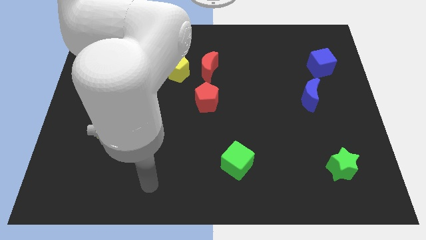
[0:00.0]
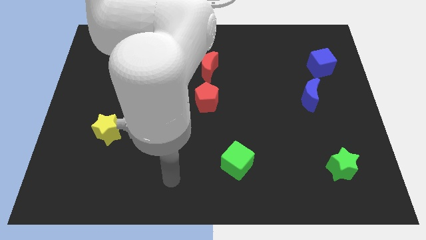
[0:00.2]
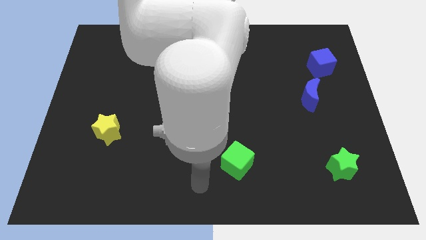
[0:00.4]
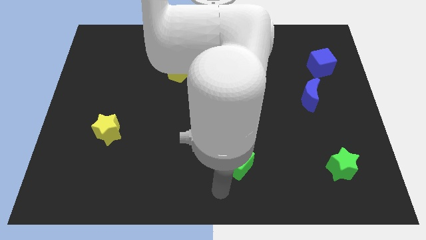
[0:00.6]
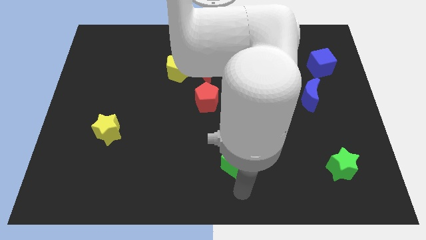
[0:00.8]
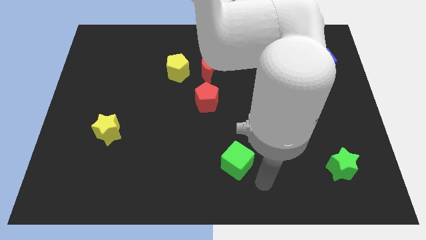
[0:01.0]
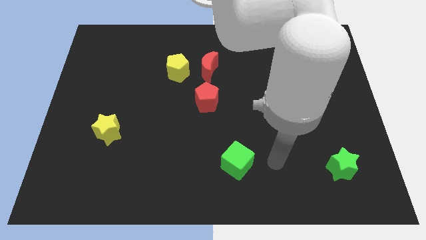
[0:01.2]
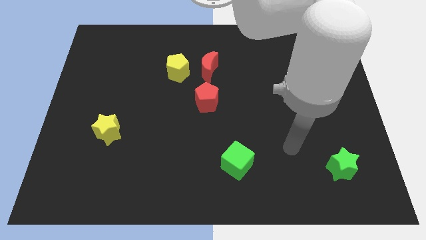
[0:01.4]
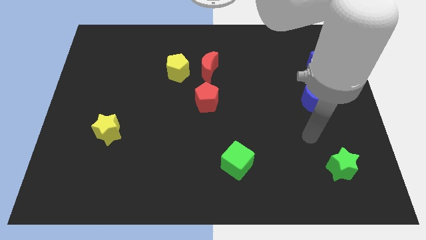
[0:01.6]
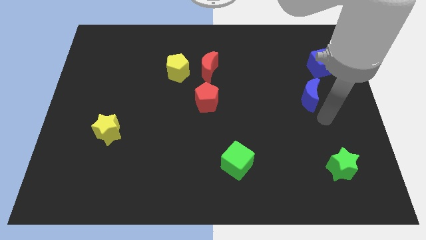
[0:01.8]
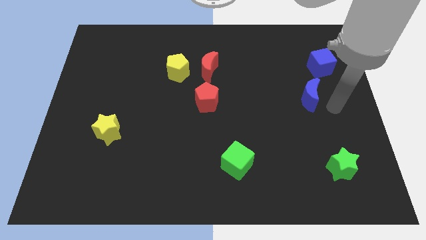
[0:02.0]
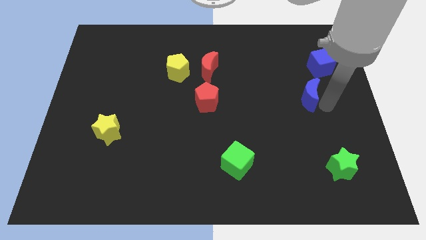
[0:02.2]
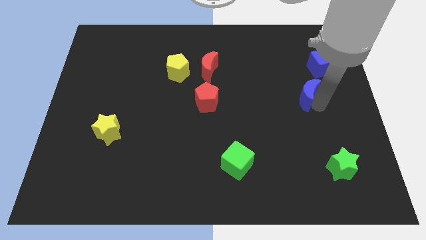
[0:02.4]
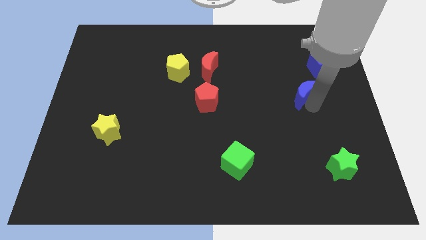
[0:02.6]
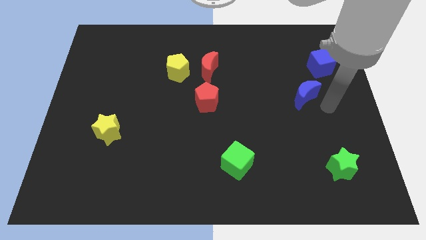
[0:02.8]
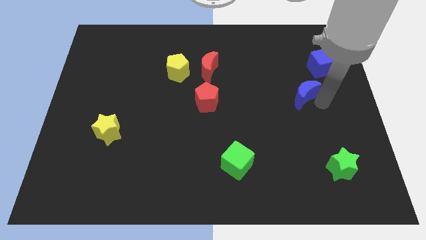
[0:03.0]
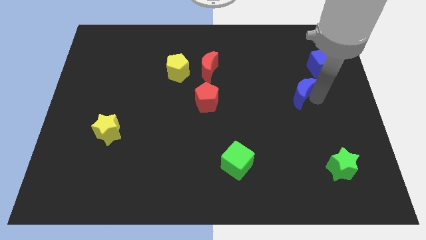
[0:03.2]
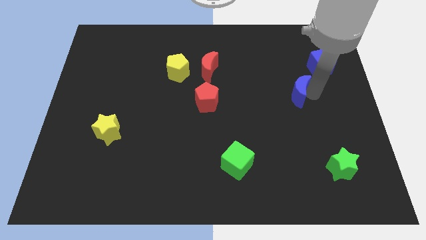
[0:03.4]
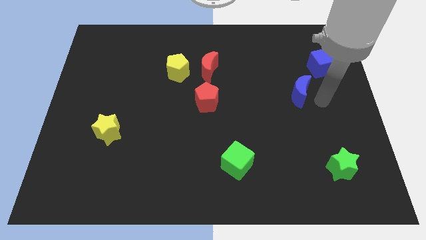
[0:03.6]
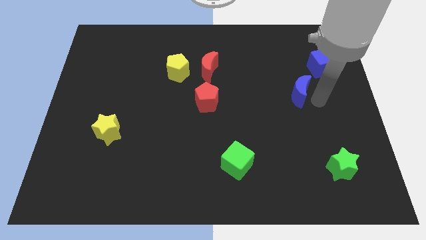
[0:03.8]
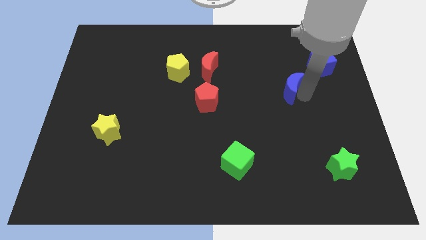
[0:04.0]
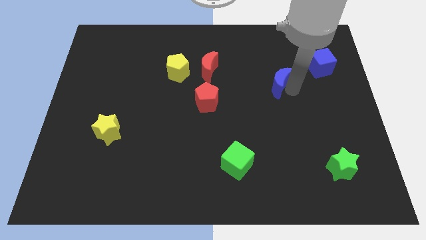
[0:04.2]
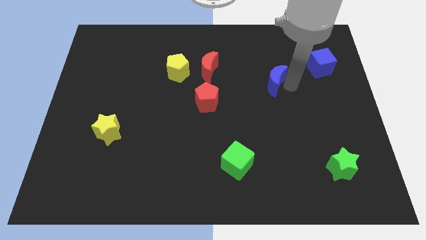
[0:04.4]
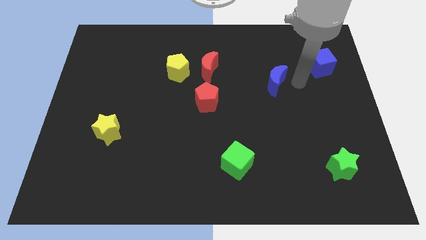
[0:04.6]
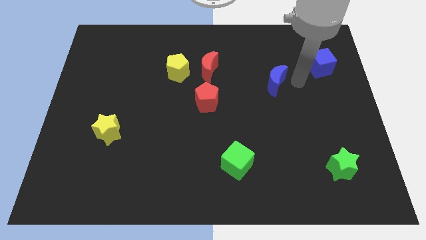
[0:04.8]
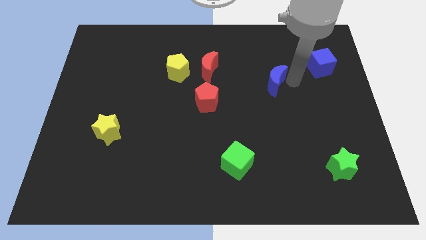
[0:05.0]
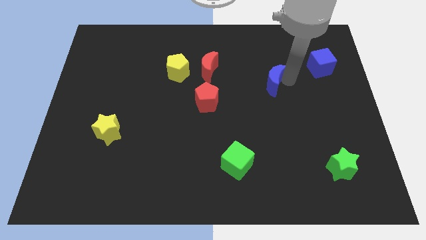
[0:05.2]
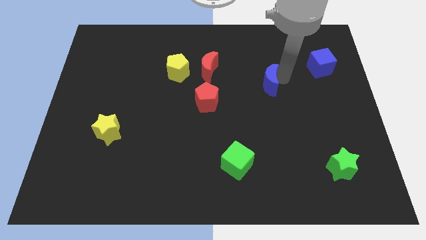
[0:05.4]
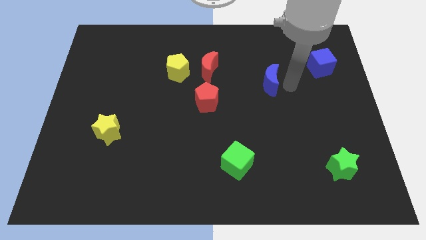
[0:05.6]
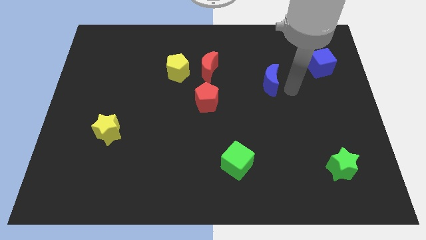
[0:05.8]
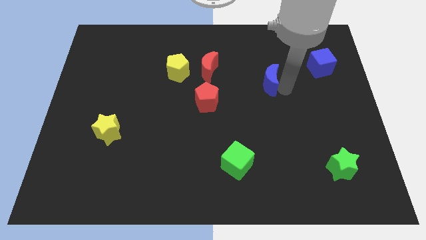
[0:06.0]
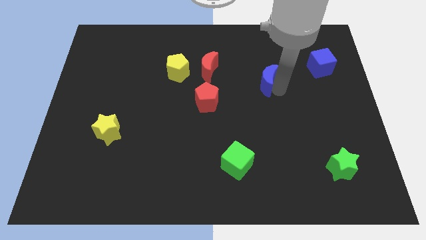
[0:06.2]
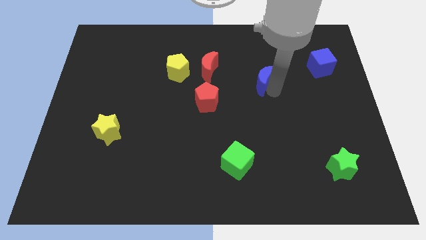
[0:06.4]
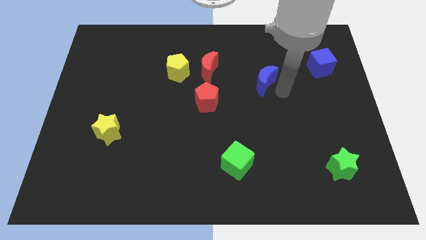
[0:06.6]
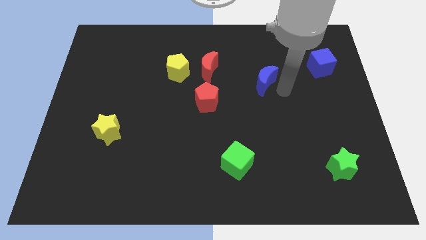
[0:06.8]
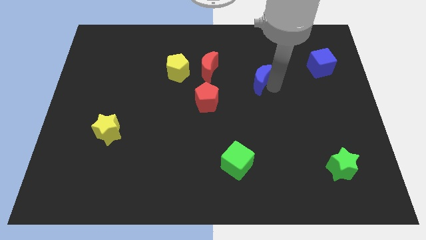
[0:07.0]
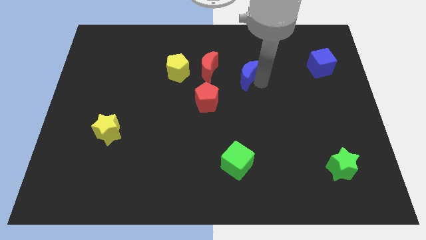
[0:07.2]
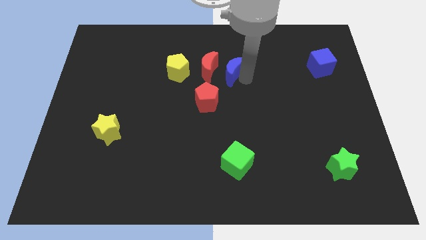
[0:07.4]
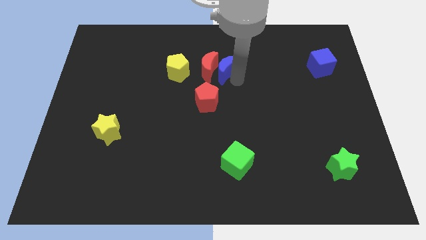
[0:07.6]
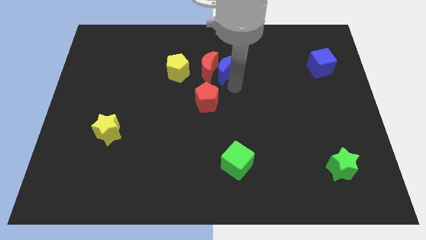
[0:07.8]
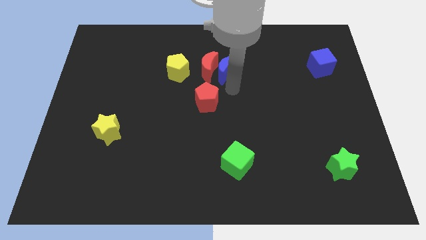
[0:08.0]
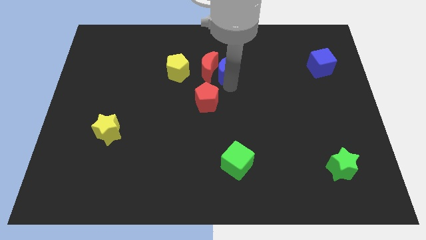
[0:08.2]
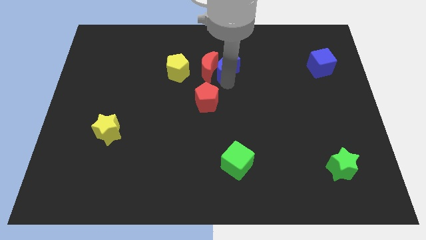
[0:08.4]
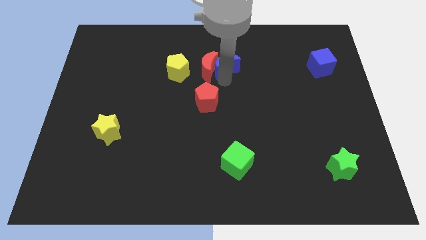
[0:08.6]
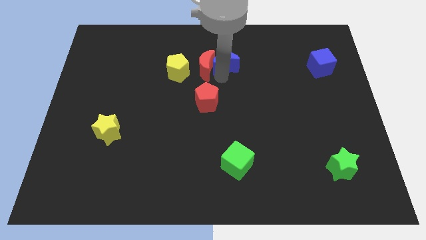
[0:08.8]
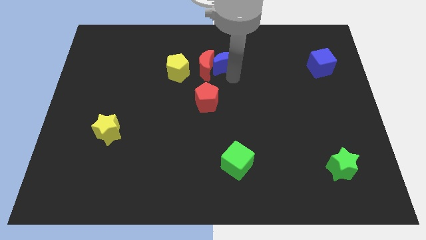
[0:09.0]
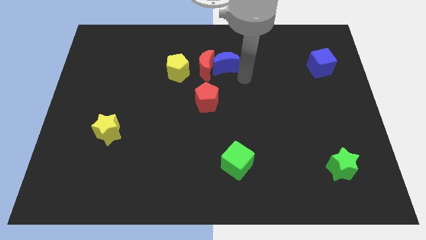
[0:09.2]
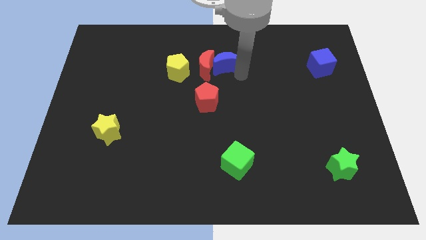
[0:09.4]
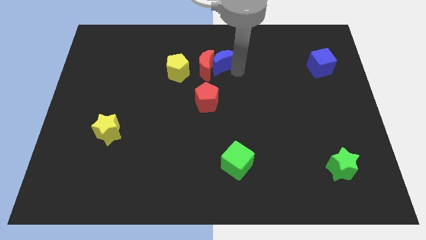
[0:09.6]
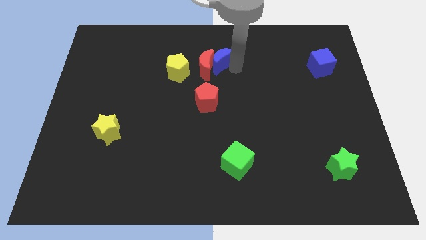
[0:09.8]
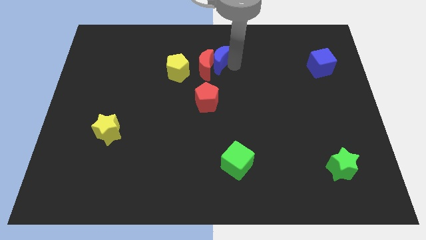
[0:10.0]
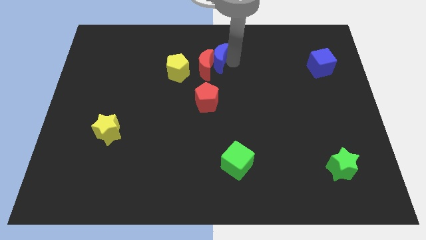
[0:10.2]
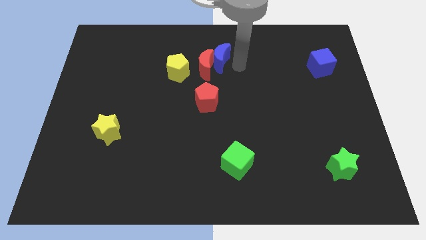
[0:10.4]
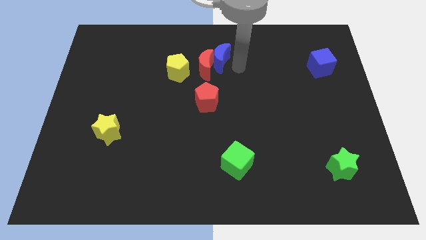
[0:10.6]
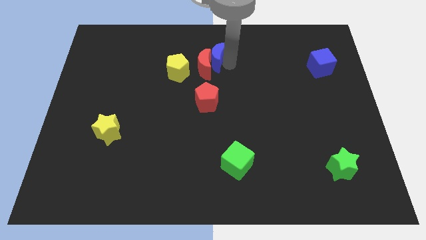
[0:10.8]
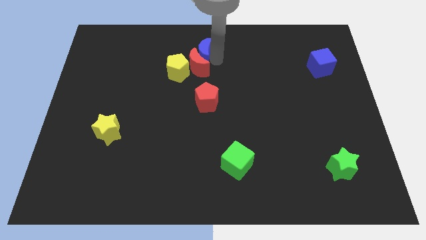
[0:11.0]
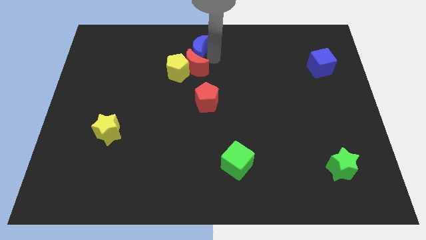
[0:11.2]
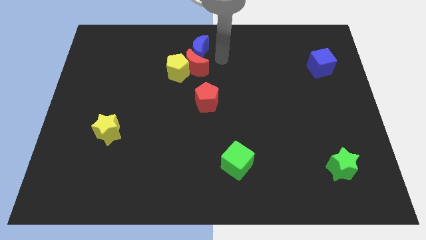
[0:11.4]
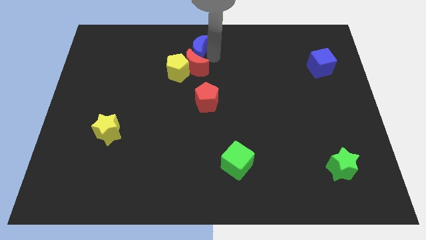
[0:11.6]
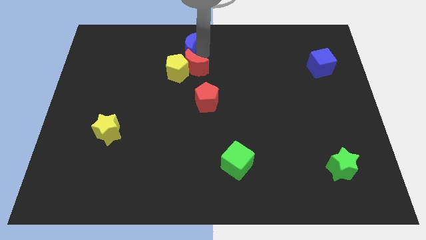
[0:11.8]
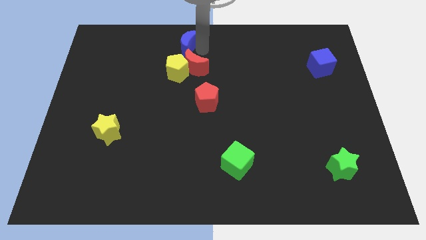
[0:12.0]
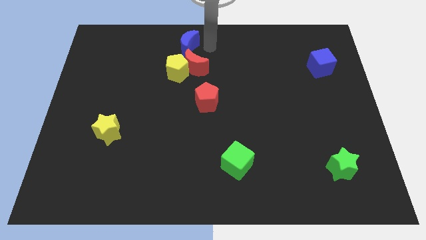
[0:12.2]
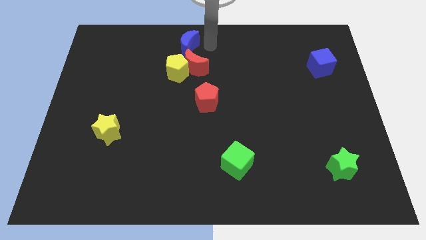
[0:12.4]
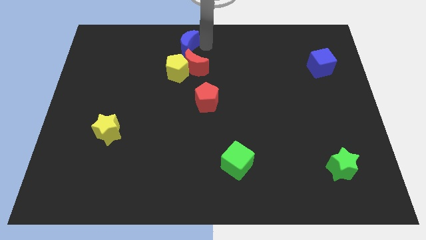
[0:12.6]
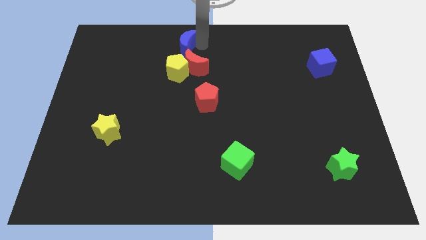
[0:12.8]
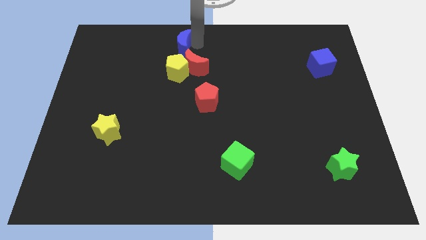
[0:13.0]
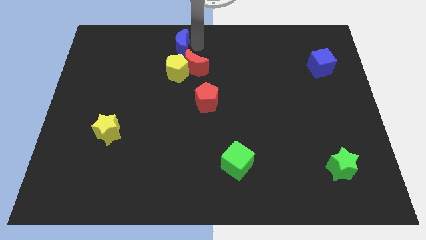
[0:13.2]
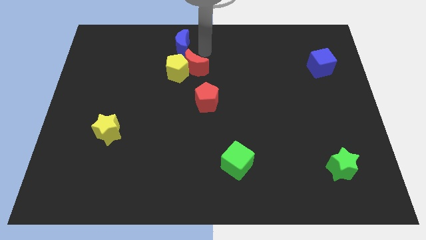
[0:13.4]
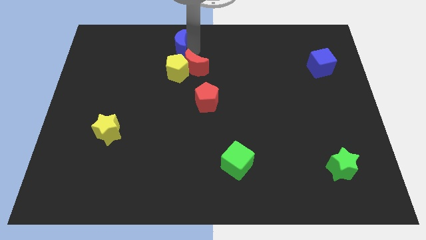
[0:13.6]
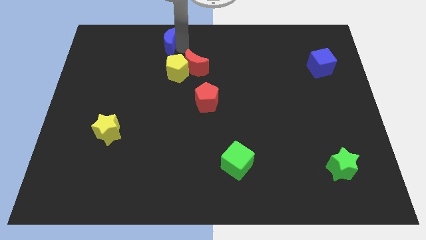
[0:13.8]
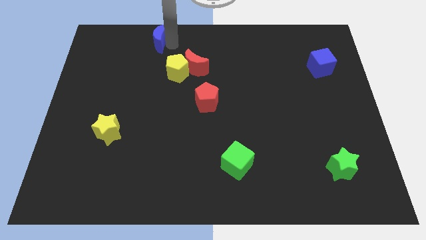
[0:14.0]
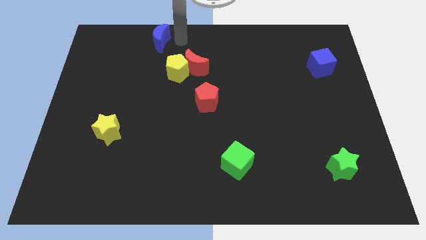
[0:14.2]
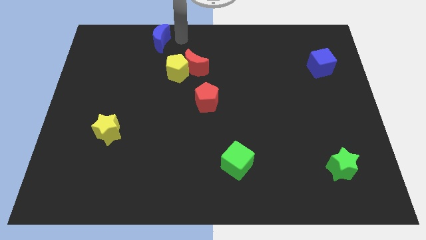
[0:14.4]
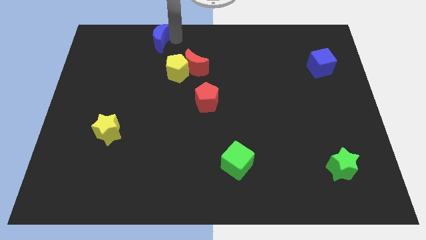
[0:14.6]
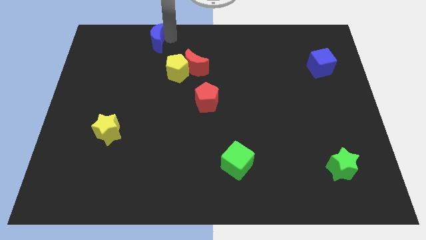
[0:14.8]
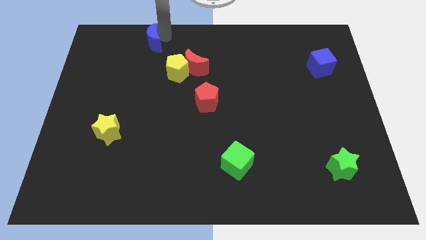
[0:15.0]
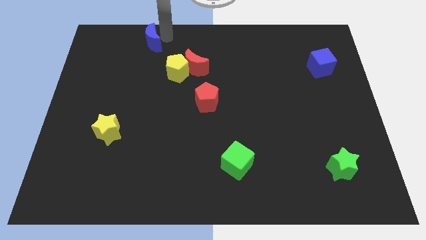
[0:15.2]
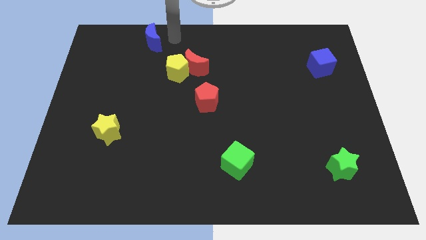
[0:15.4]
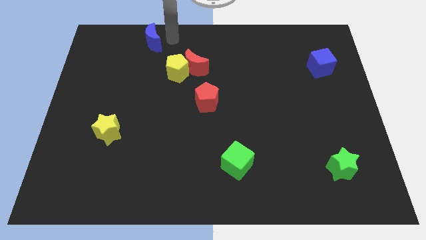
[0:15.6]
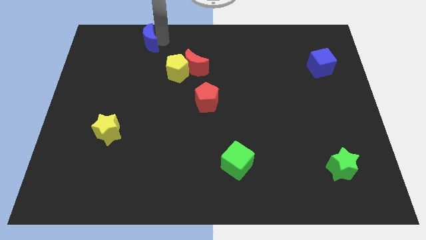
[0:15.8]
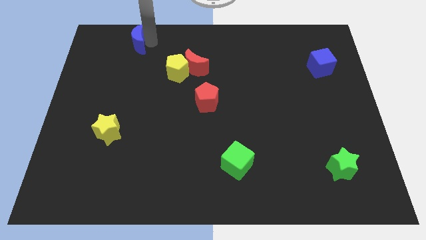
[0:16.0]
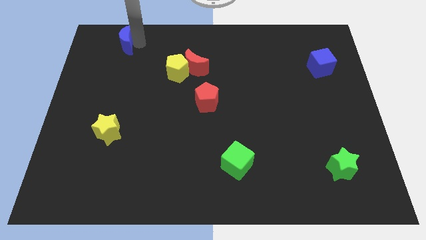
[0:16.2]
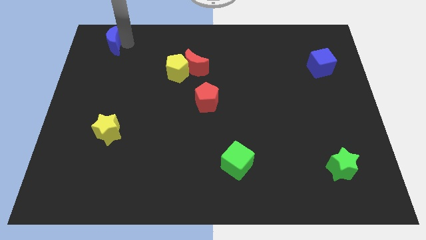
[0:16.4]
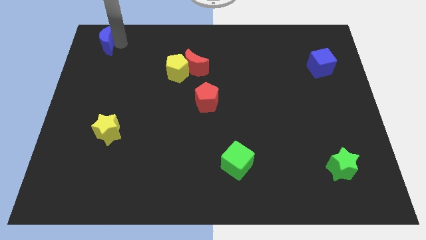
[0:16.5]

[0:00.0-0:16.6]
slide the blue moon to the top left of the board
